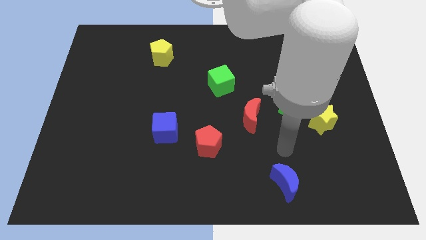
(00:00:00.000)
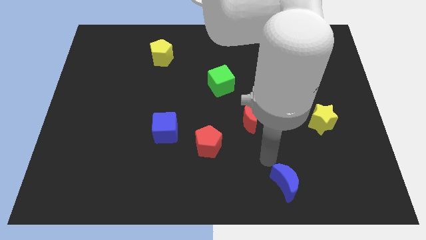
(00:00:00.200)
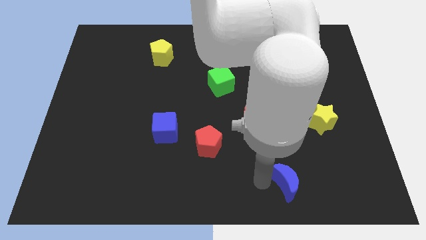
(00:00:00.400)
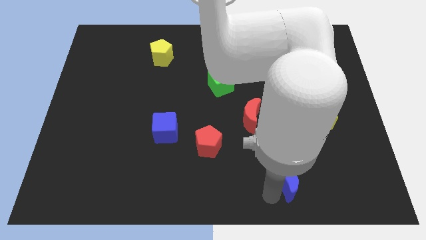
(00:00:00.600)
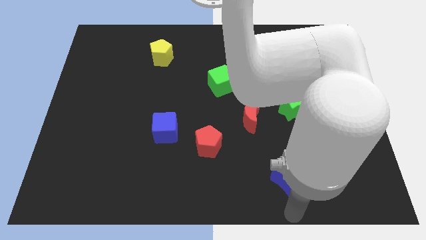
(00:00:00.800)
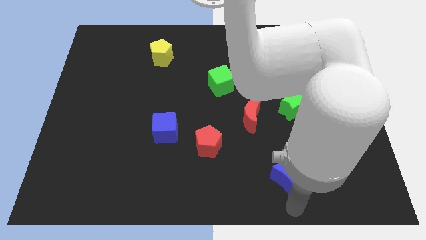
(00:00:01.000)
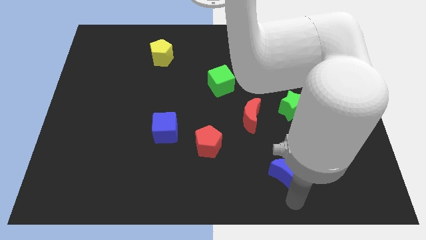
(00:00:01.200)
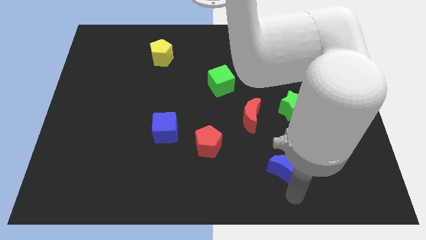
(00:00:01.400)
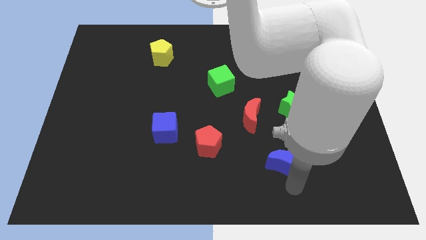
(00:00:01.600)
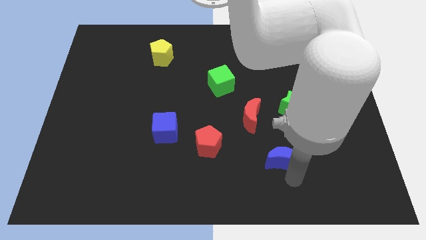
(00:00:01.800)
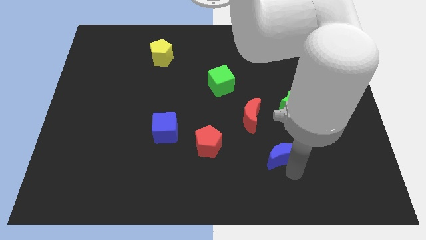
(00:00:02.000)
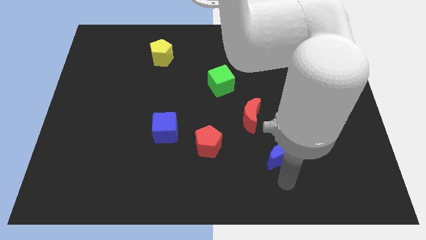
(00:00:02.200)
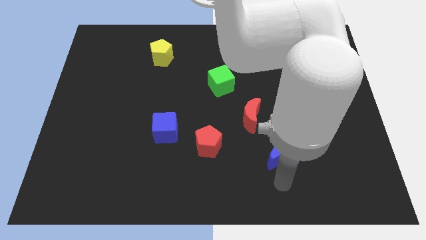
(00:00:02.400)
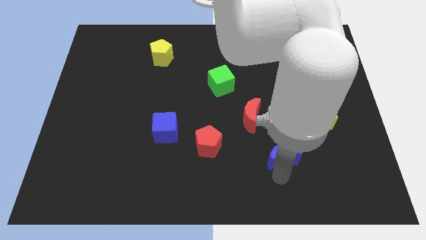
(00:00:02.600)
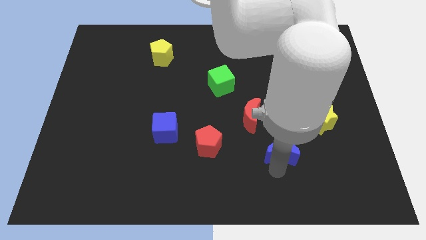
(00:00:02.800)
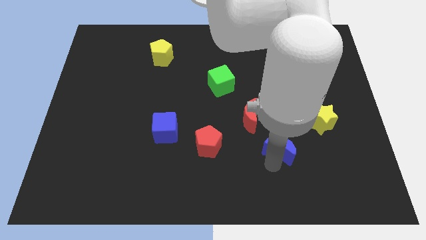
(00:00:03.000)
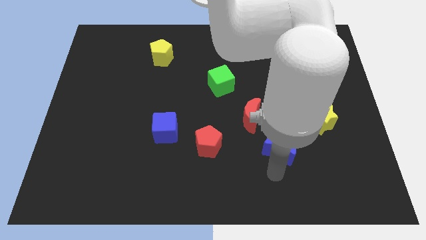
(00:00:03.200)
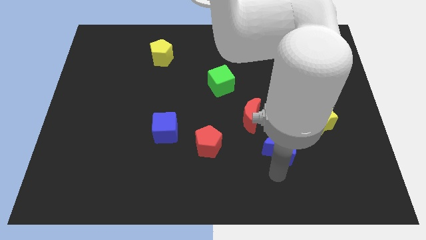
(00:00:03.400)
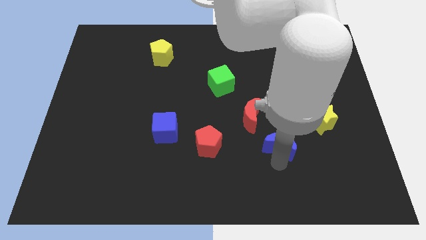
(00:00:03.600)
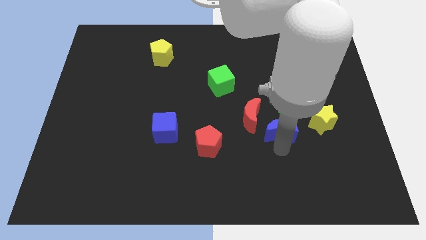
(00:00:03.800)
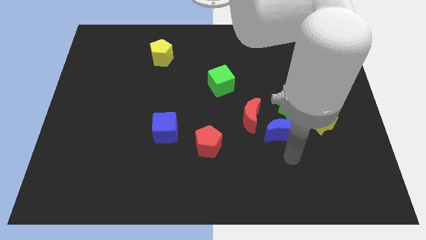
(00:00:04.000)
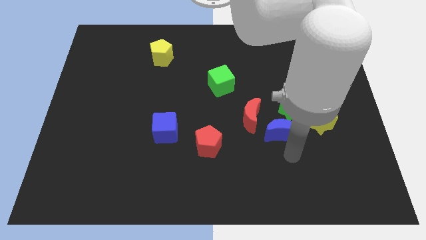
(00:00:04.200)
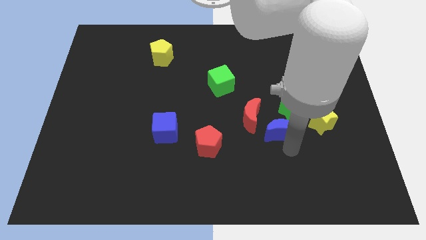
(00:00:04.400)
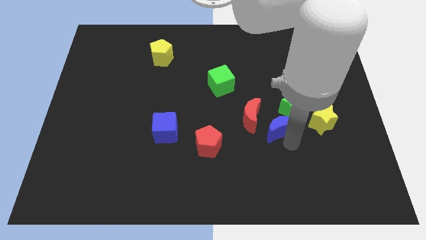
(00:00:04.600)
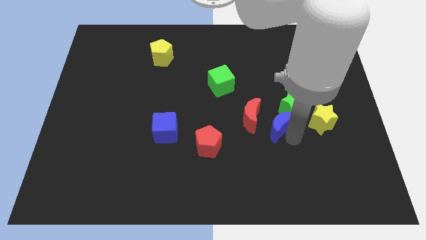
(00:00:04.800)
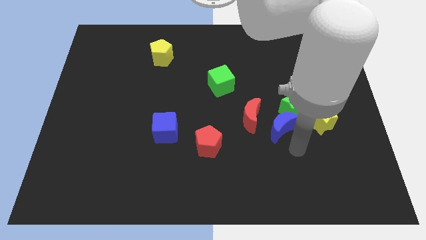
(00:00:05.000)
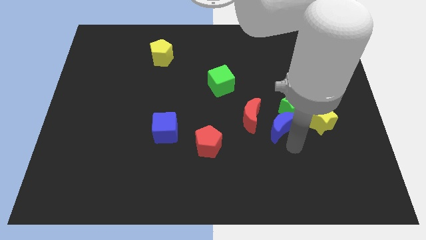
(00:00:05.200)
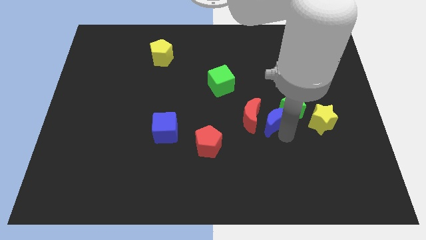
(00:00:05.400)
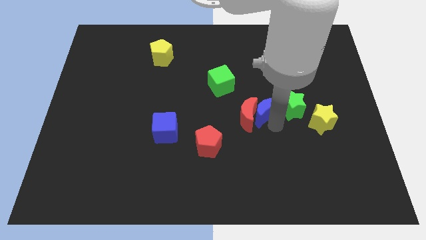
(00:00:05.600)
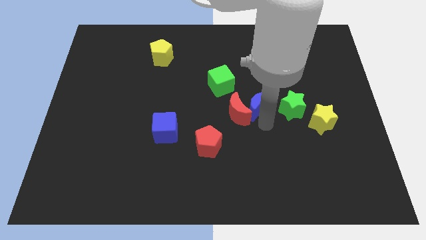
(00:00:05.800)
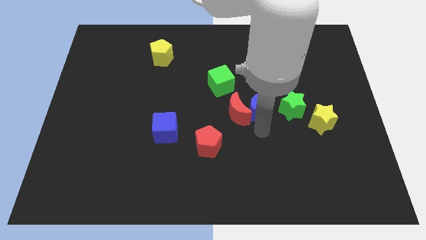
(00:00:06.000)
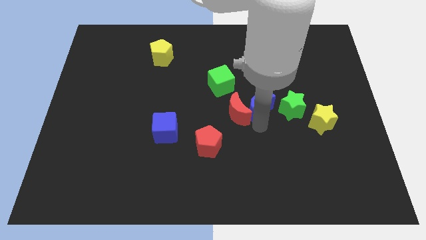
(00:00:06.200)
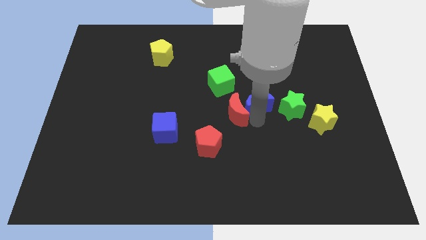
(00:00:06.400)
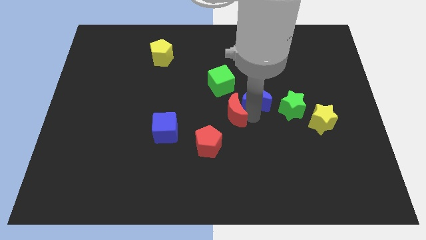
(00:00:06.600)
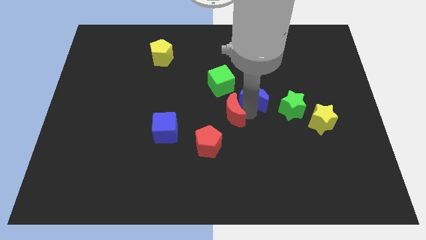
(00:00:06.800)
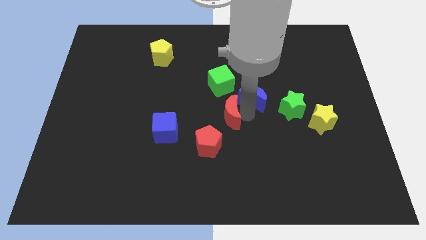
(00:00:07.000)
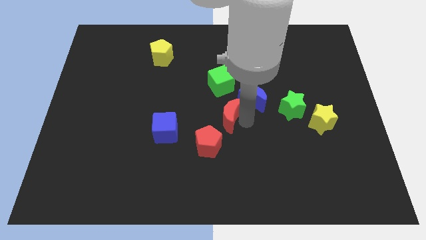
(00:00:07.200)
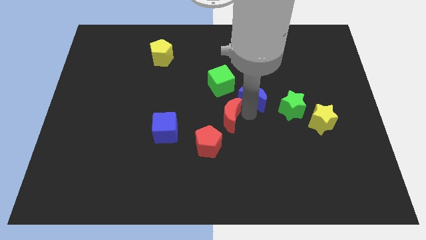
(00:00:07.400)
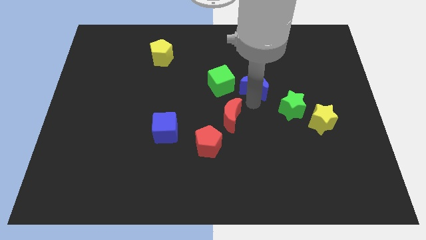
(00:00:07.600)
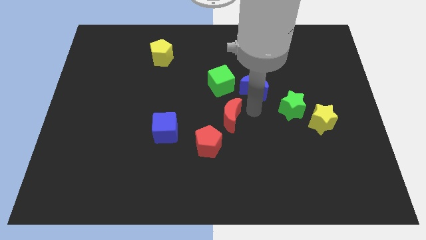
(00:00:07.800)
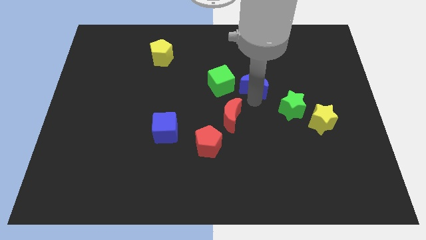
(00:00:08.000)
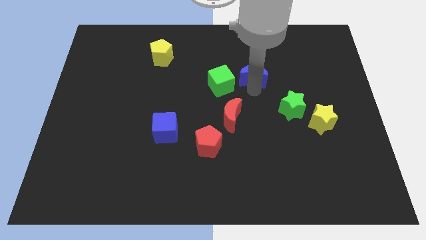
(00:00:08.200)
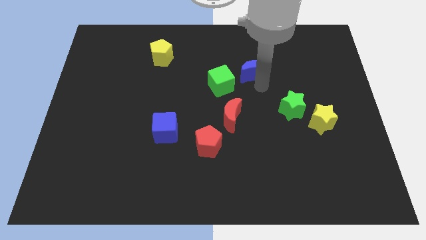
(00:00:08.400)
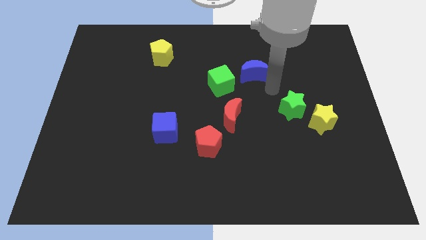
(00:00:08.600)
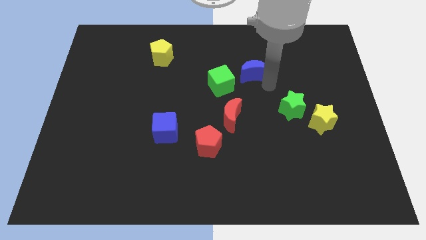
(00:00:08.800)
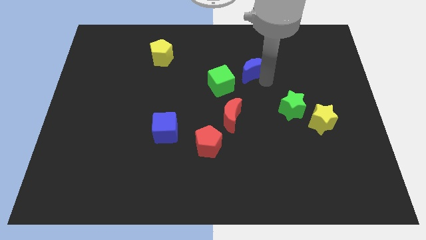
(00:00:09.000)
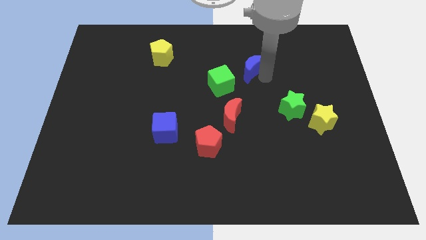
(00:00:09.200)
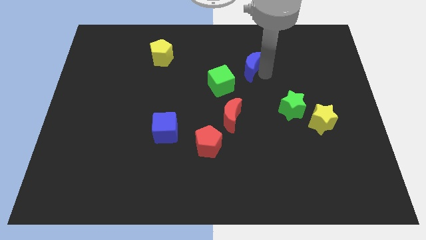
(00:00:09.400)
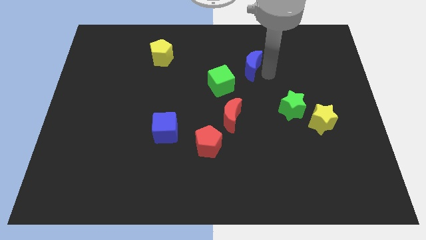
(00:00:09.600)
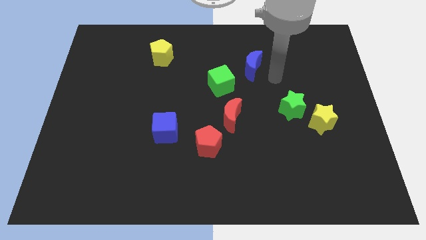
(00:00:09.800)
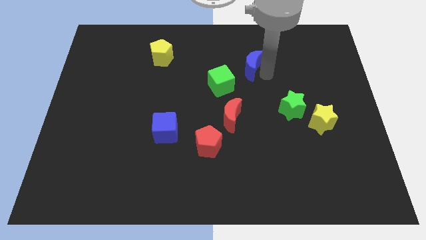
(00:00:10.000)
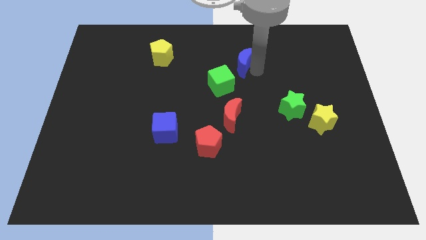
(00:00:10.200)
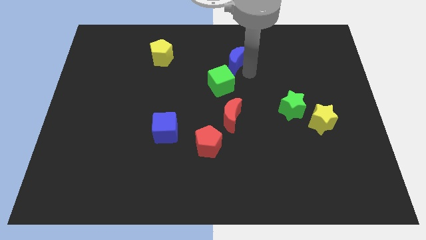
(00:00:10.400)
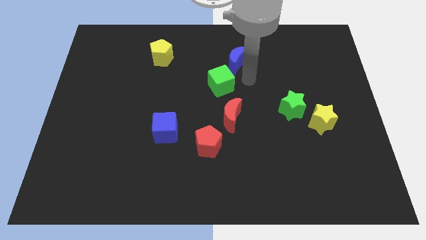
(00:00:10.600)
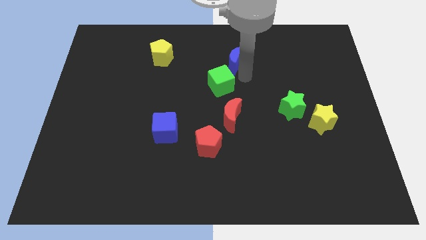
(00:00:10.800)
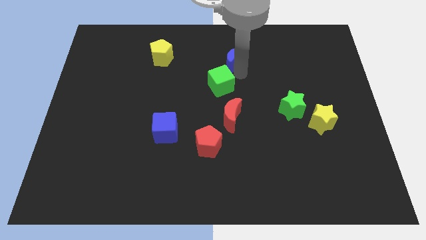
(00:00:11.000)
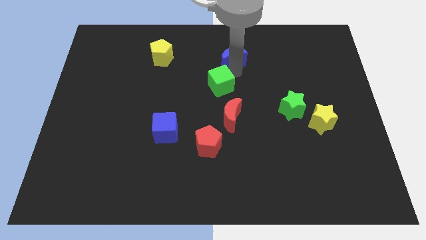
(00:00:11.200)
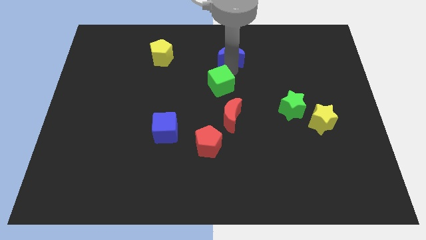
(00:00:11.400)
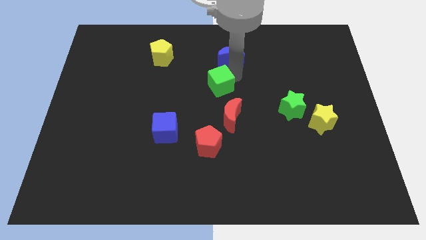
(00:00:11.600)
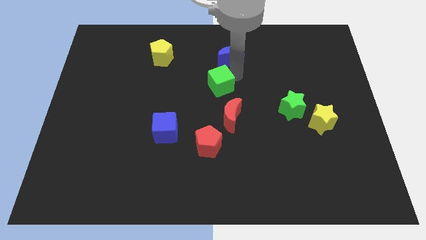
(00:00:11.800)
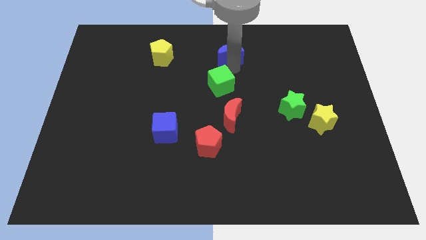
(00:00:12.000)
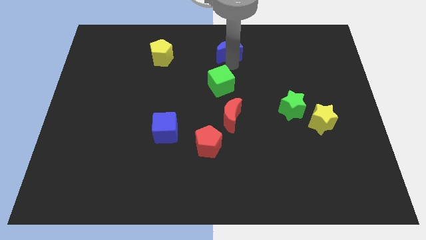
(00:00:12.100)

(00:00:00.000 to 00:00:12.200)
slide the blue moon to the top

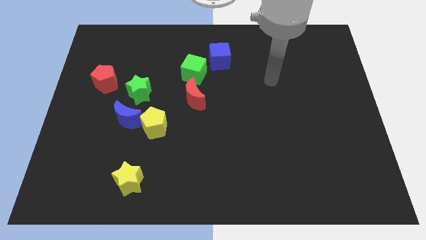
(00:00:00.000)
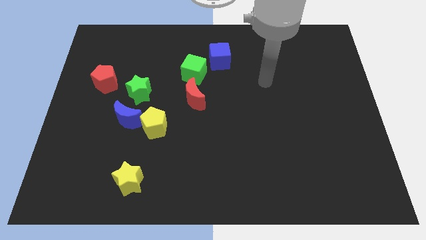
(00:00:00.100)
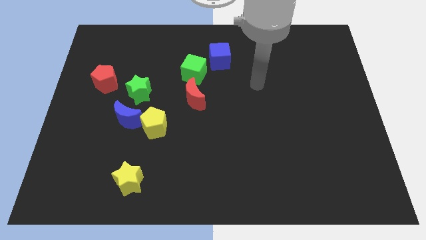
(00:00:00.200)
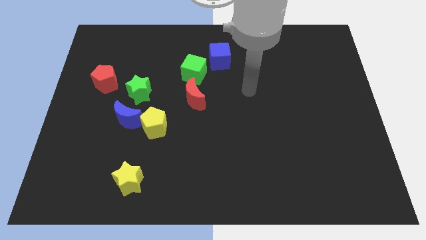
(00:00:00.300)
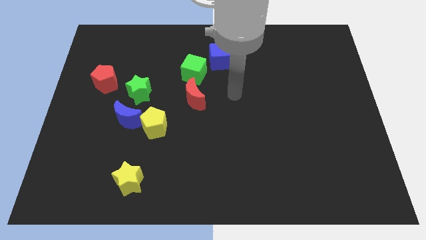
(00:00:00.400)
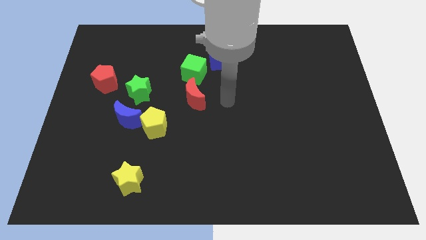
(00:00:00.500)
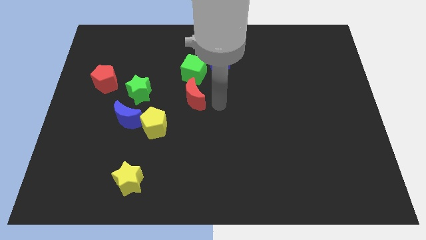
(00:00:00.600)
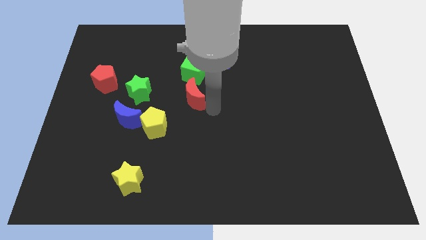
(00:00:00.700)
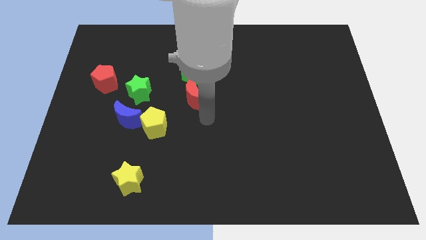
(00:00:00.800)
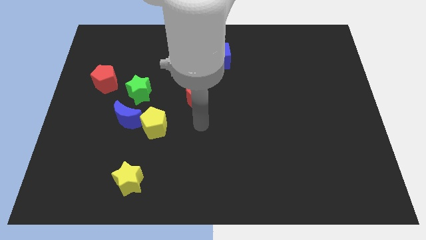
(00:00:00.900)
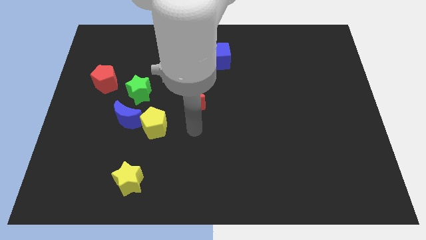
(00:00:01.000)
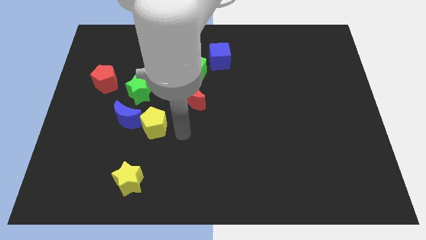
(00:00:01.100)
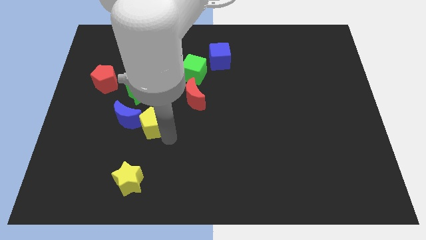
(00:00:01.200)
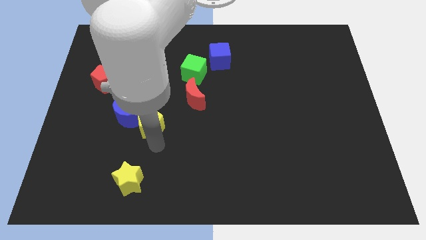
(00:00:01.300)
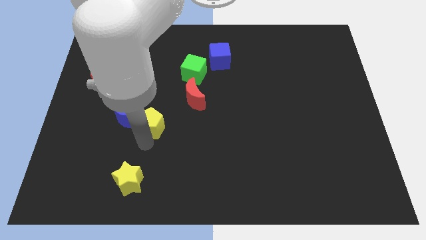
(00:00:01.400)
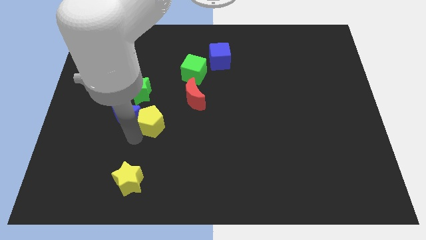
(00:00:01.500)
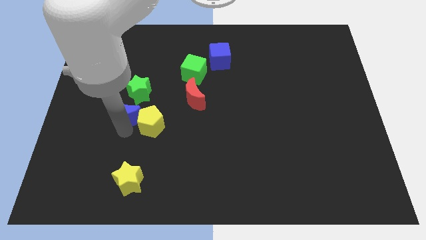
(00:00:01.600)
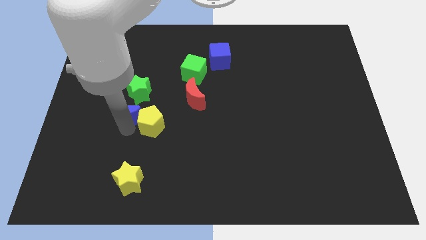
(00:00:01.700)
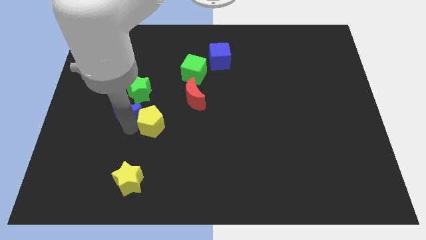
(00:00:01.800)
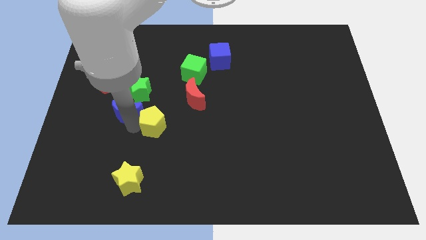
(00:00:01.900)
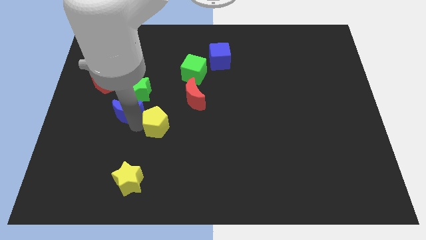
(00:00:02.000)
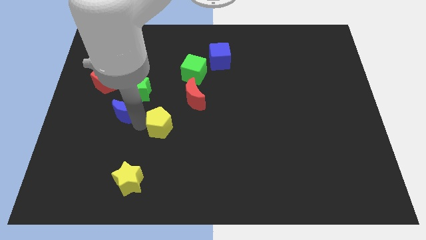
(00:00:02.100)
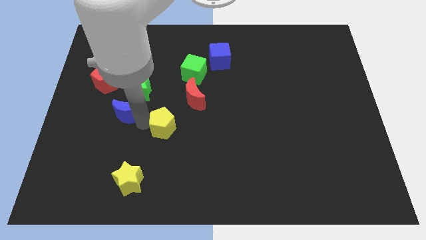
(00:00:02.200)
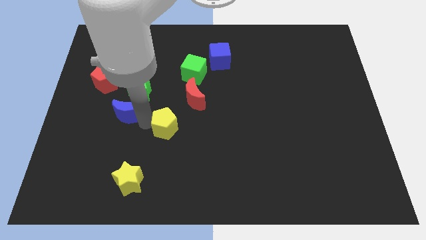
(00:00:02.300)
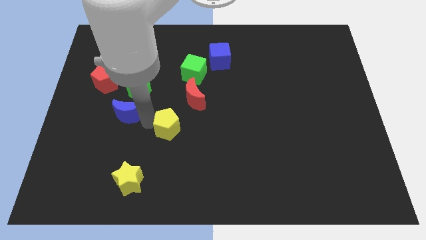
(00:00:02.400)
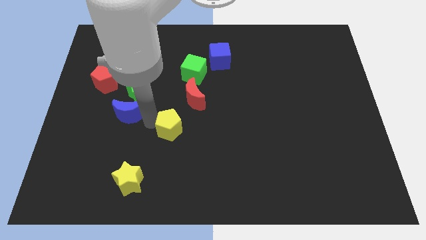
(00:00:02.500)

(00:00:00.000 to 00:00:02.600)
slide the yellow pentagon to the center of the board
